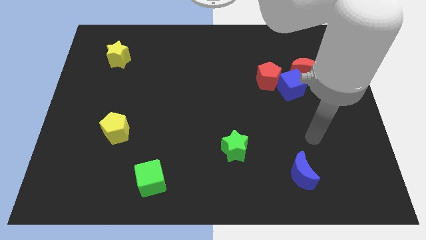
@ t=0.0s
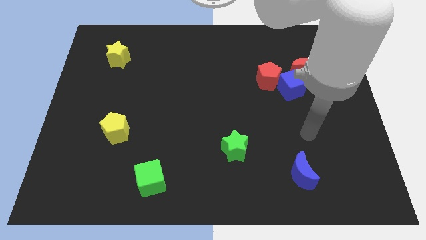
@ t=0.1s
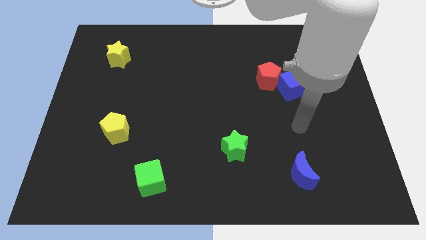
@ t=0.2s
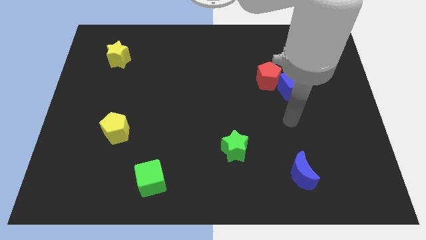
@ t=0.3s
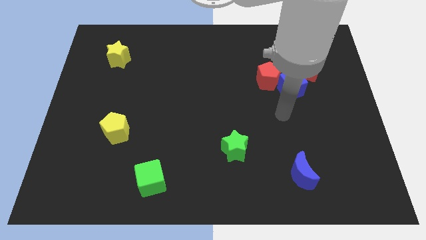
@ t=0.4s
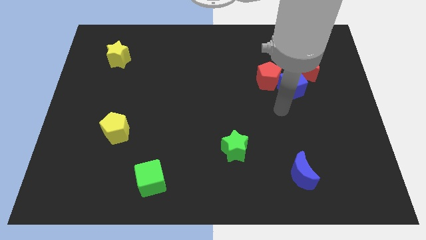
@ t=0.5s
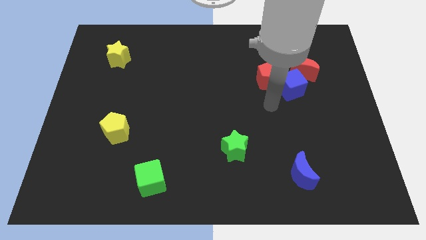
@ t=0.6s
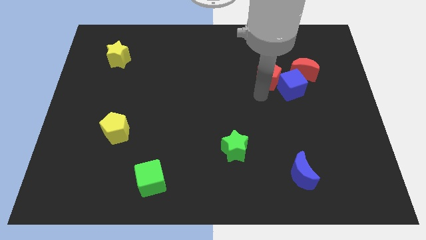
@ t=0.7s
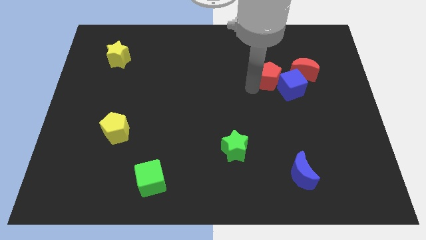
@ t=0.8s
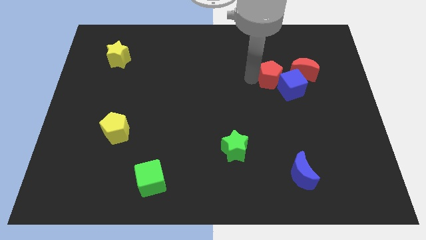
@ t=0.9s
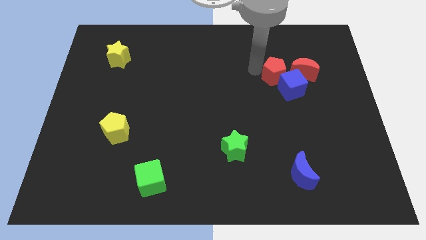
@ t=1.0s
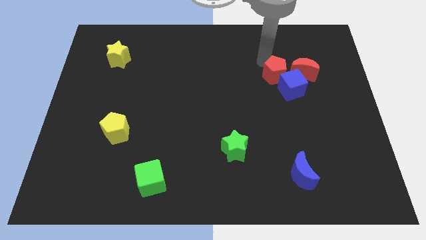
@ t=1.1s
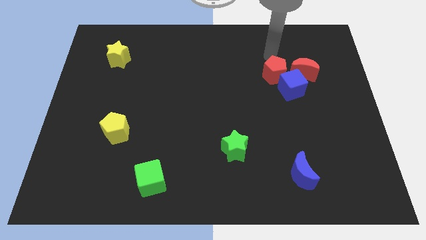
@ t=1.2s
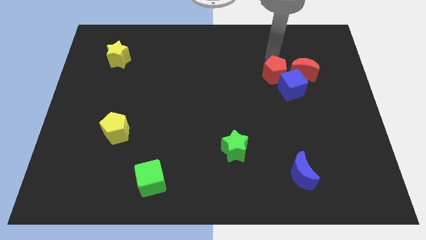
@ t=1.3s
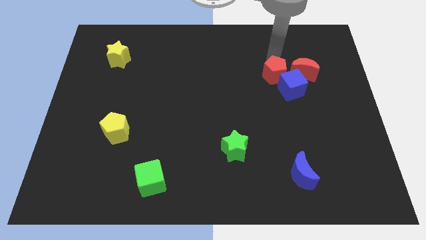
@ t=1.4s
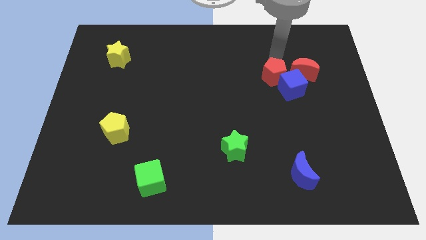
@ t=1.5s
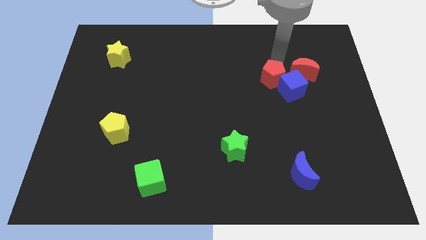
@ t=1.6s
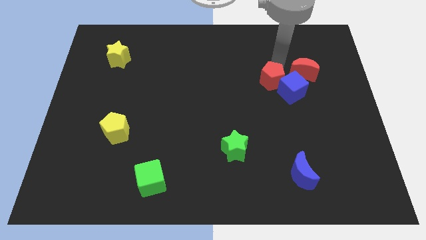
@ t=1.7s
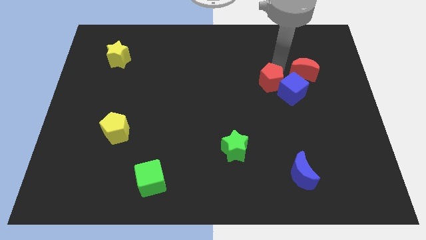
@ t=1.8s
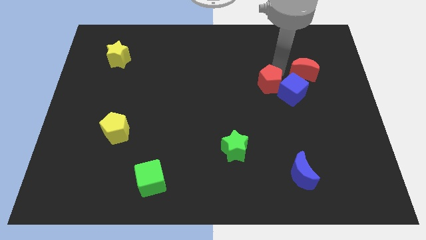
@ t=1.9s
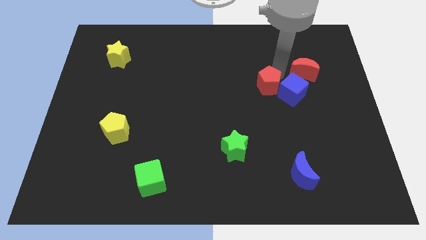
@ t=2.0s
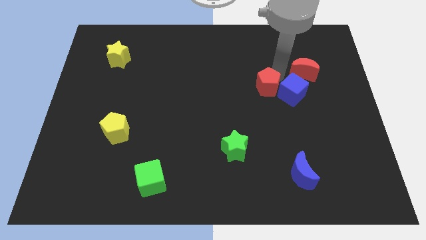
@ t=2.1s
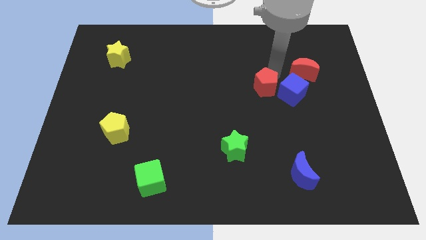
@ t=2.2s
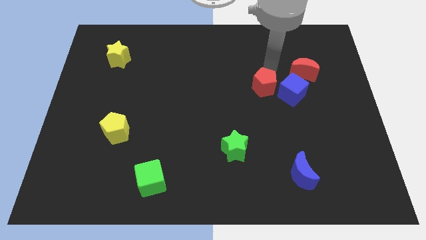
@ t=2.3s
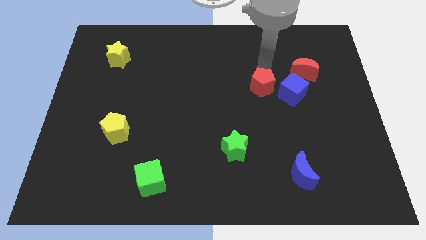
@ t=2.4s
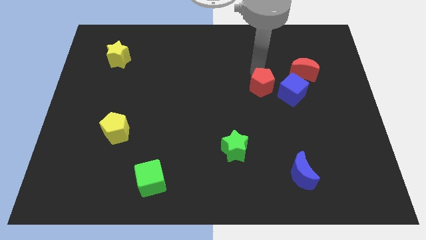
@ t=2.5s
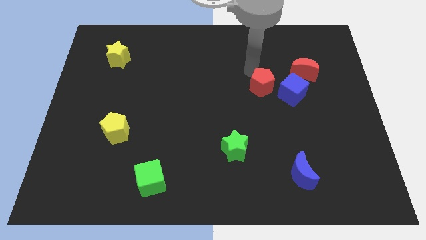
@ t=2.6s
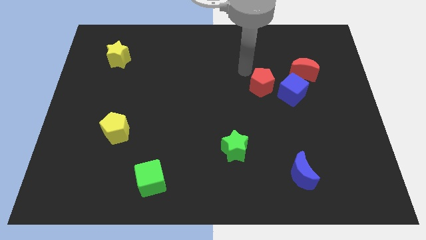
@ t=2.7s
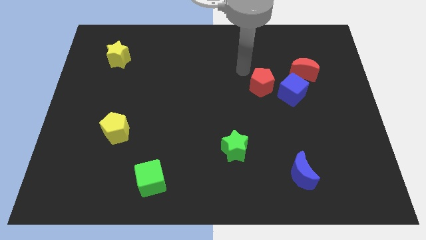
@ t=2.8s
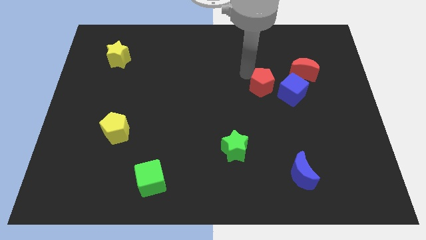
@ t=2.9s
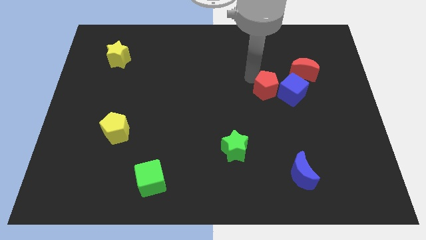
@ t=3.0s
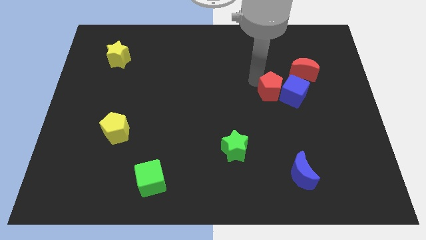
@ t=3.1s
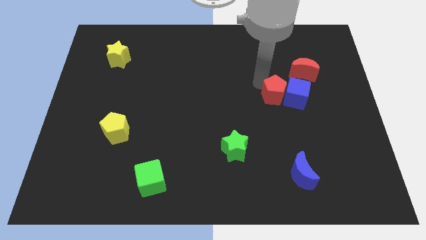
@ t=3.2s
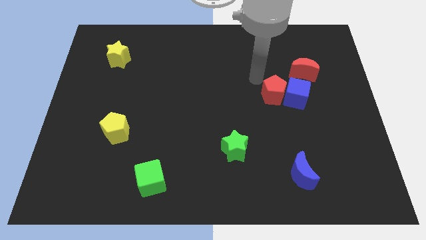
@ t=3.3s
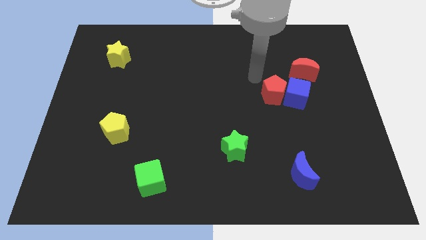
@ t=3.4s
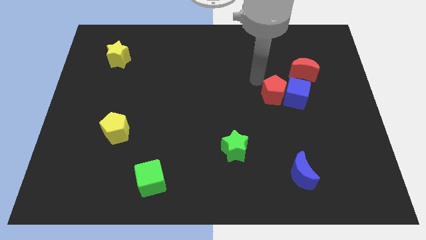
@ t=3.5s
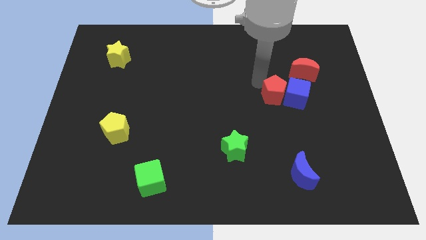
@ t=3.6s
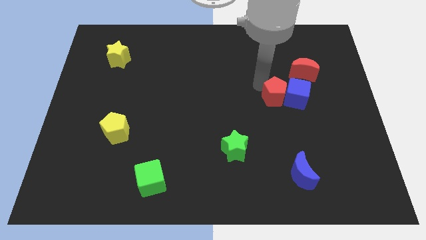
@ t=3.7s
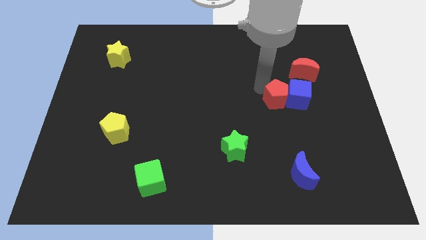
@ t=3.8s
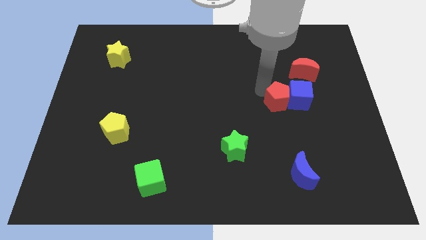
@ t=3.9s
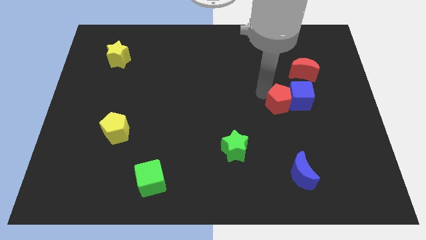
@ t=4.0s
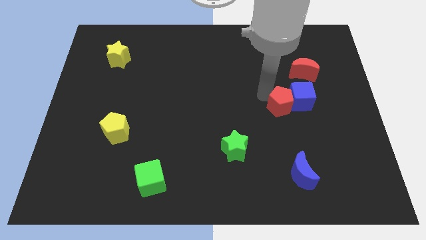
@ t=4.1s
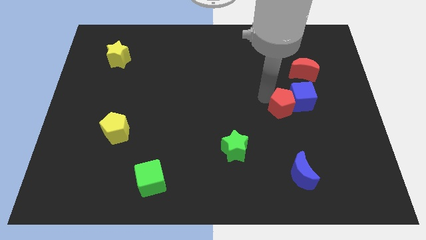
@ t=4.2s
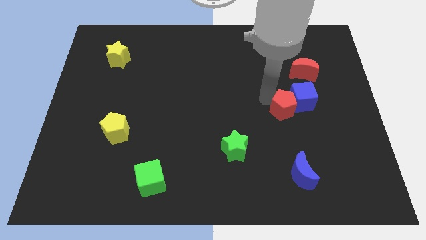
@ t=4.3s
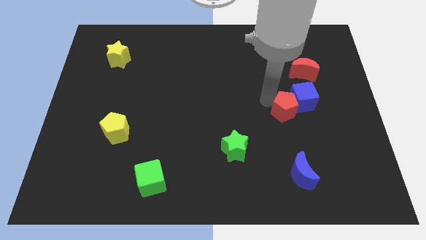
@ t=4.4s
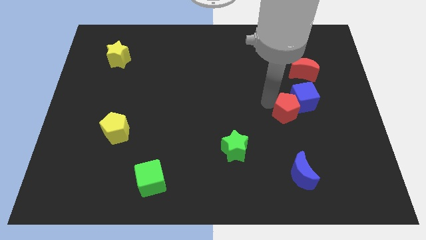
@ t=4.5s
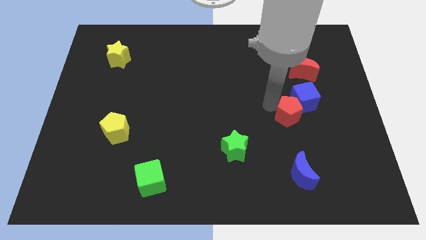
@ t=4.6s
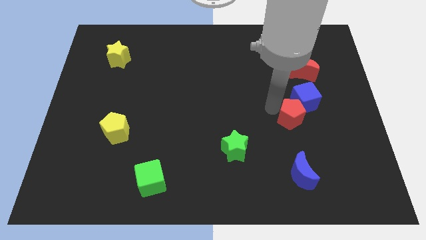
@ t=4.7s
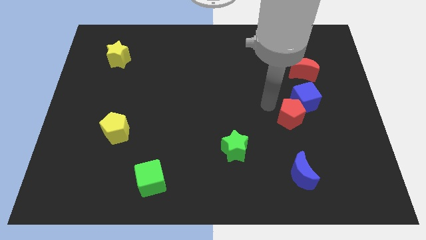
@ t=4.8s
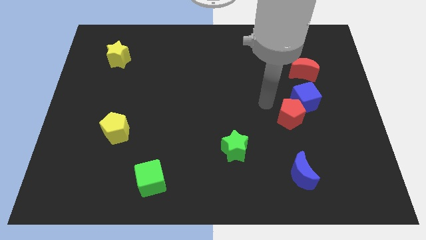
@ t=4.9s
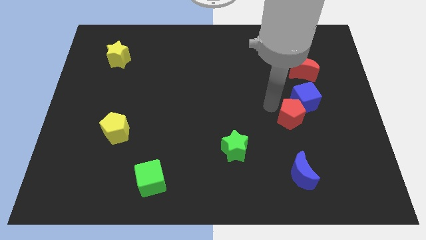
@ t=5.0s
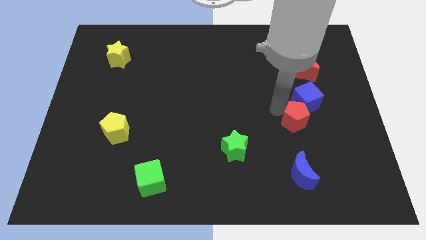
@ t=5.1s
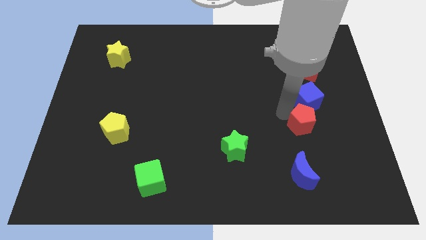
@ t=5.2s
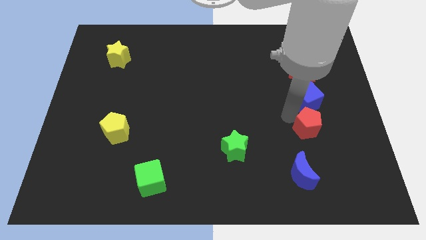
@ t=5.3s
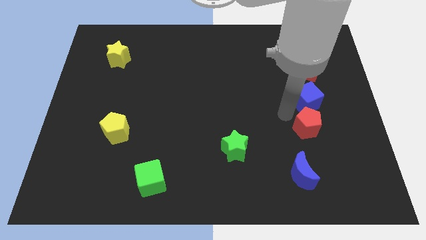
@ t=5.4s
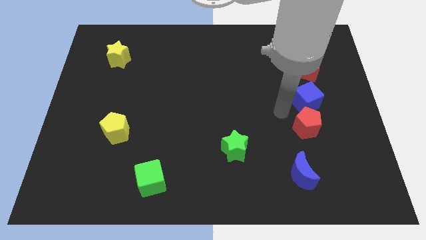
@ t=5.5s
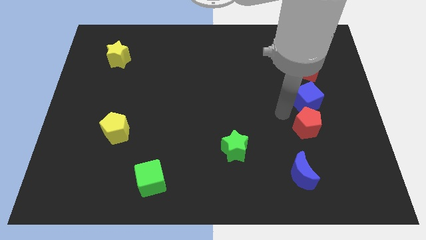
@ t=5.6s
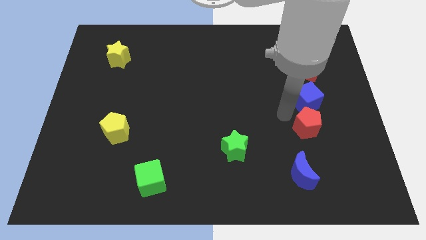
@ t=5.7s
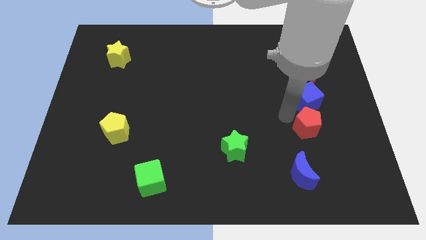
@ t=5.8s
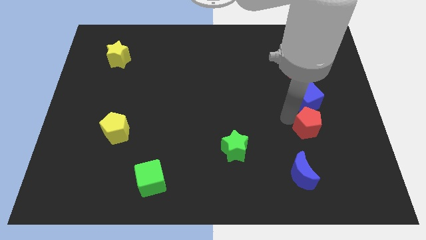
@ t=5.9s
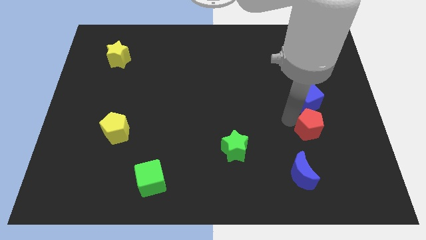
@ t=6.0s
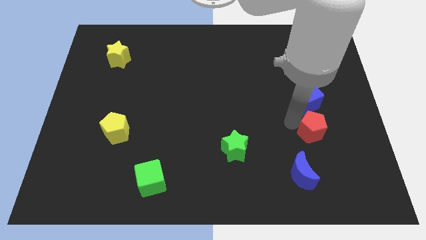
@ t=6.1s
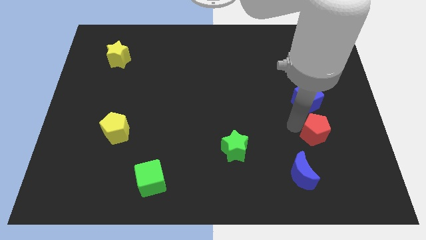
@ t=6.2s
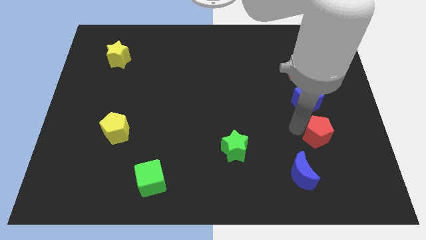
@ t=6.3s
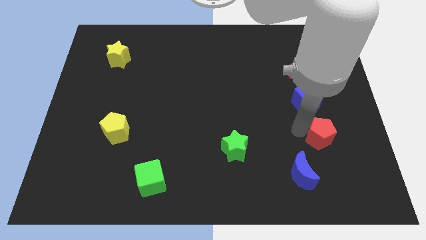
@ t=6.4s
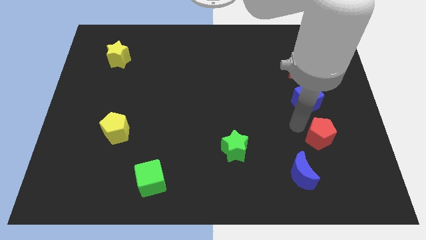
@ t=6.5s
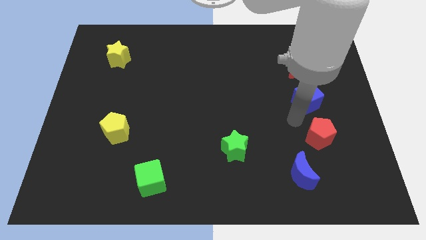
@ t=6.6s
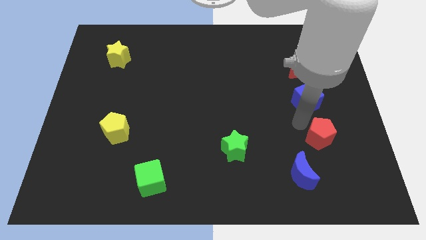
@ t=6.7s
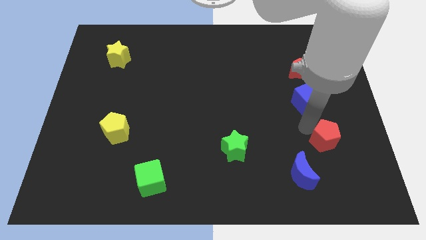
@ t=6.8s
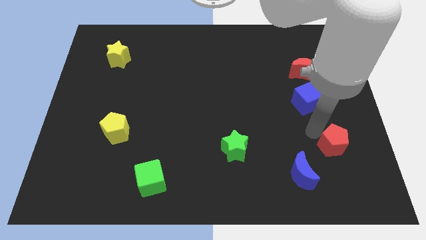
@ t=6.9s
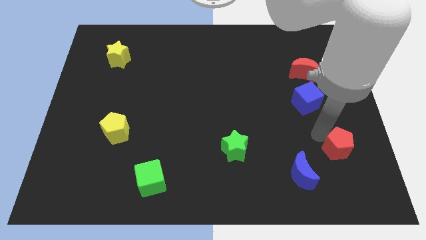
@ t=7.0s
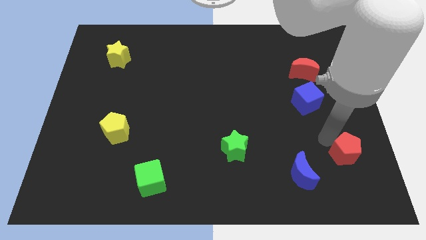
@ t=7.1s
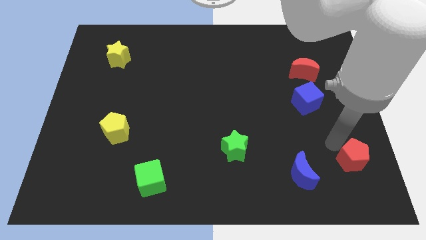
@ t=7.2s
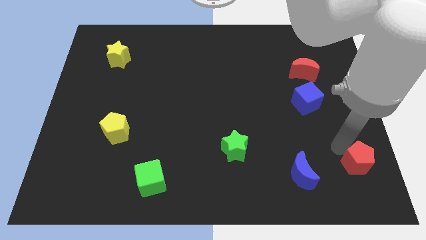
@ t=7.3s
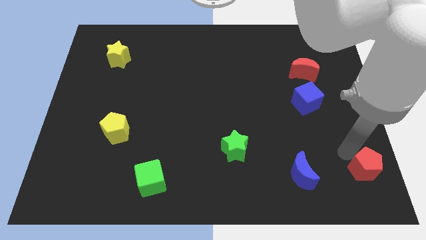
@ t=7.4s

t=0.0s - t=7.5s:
push the red pentagon to the bottom right of the board
